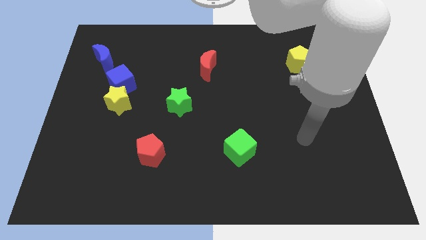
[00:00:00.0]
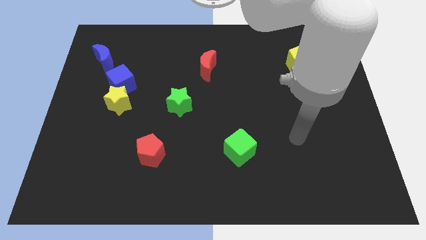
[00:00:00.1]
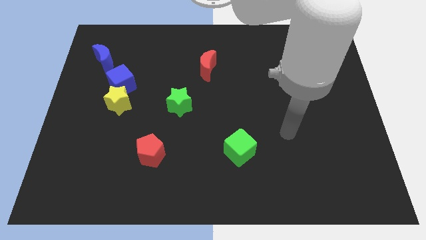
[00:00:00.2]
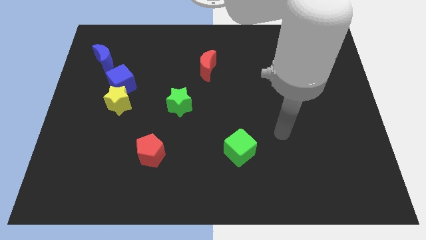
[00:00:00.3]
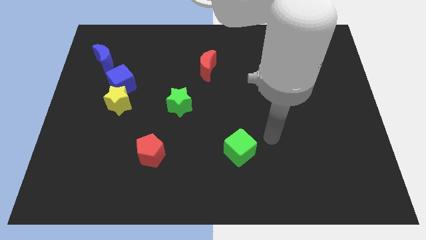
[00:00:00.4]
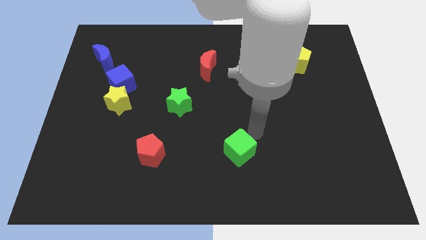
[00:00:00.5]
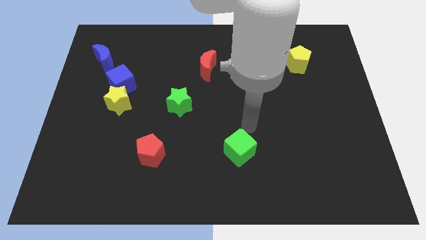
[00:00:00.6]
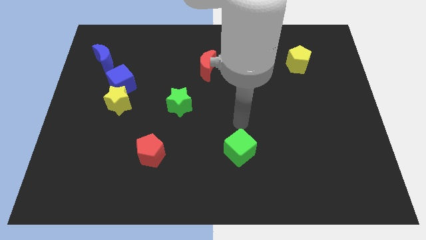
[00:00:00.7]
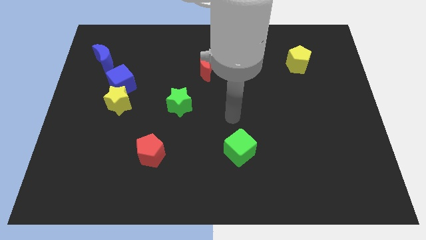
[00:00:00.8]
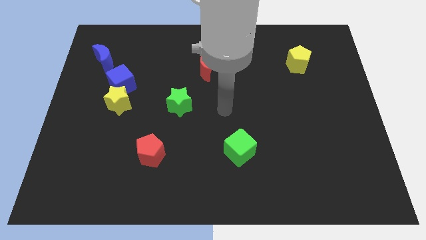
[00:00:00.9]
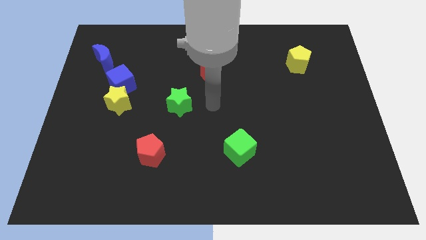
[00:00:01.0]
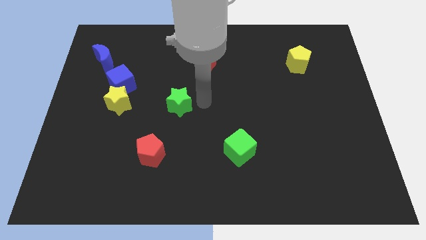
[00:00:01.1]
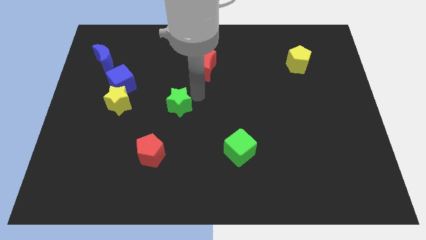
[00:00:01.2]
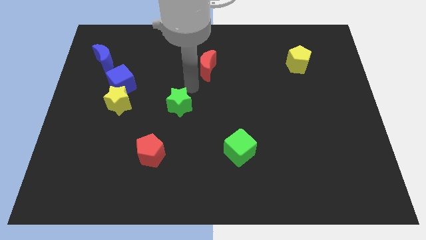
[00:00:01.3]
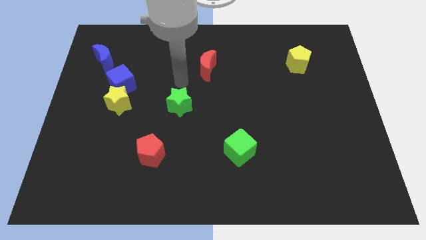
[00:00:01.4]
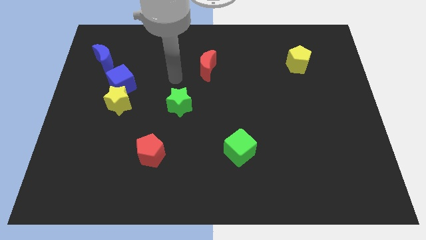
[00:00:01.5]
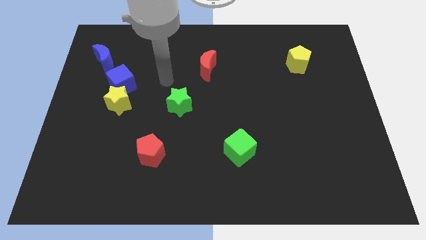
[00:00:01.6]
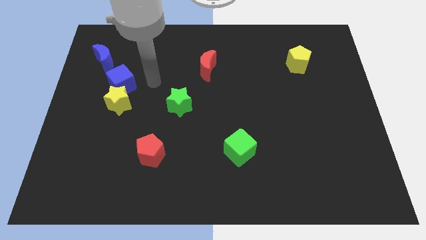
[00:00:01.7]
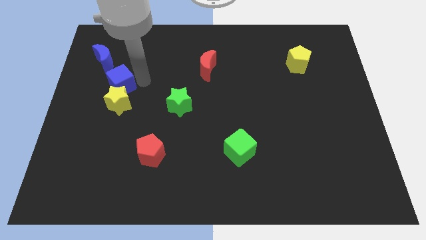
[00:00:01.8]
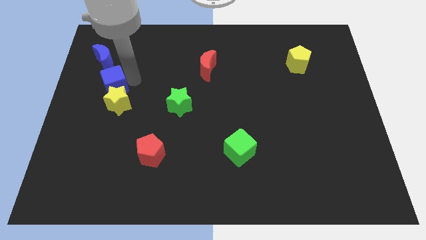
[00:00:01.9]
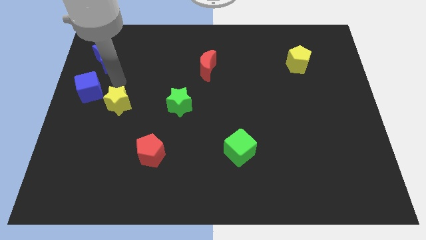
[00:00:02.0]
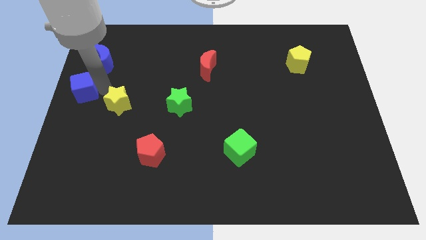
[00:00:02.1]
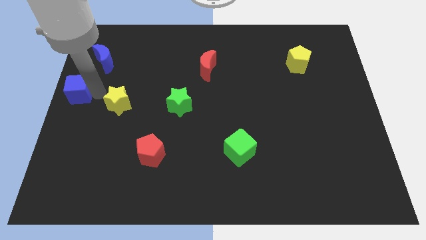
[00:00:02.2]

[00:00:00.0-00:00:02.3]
separate the yellow star from the blue cube

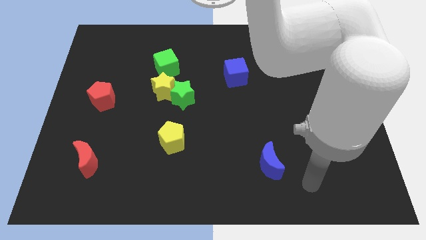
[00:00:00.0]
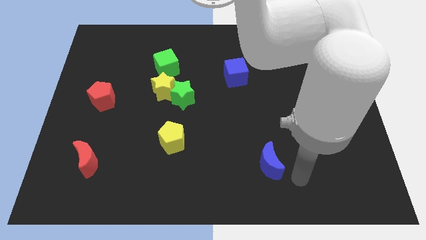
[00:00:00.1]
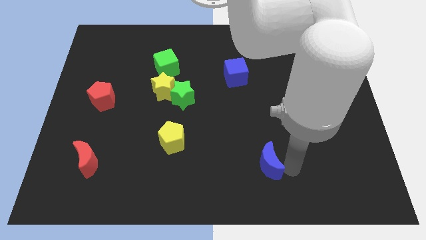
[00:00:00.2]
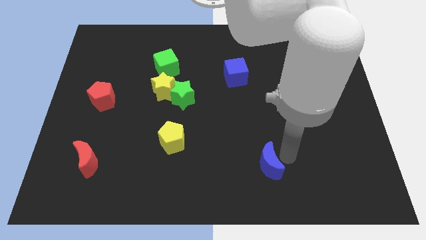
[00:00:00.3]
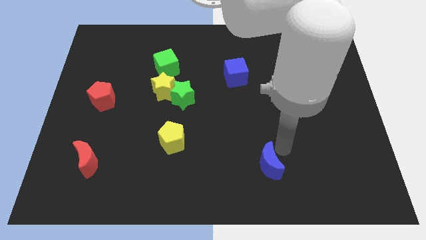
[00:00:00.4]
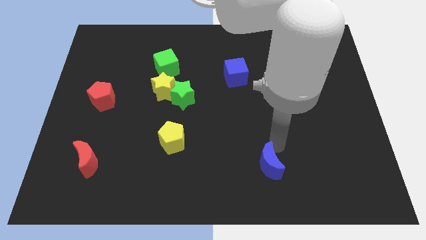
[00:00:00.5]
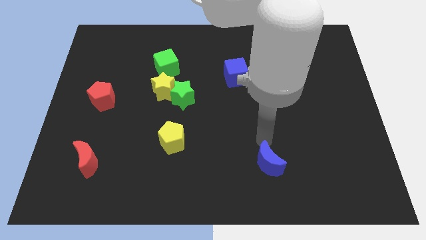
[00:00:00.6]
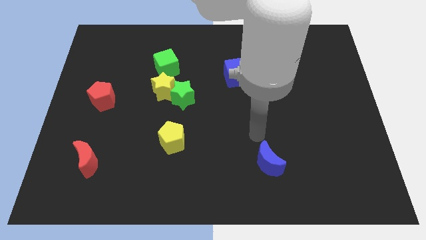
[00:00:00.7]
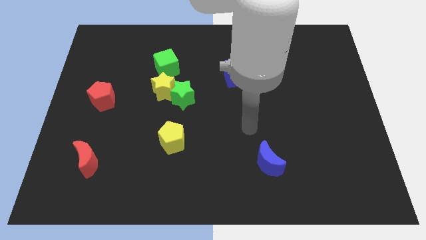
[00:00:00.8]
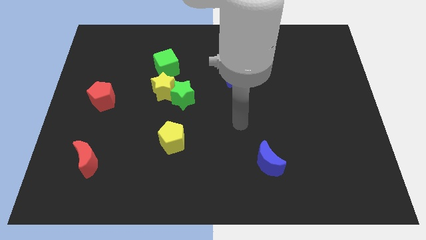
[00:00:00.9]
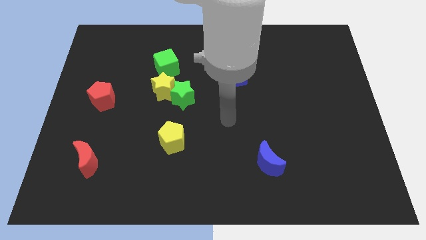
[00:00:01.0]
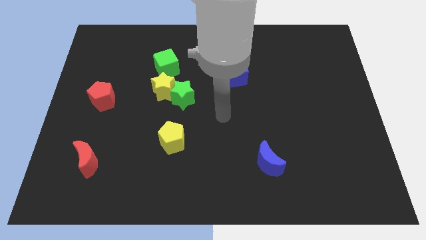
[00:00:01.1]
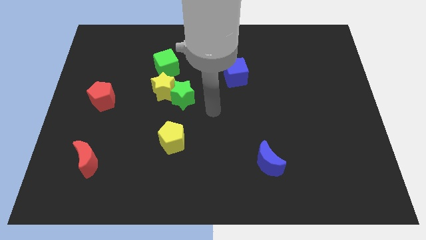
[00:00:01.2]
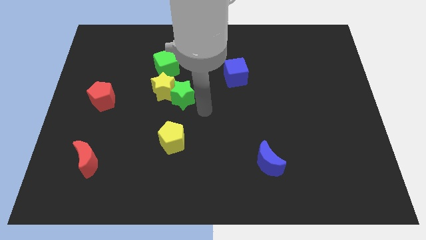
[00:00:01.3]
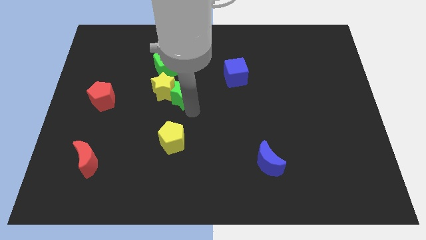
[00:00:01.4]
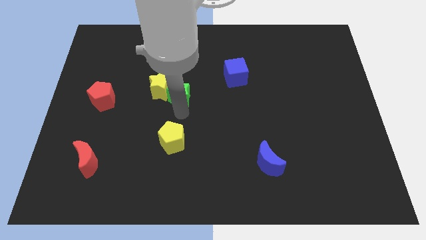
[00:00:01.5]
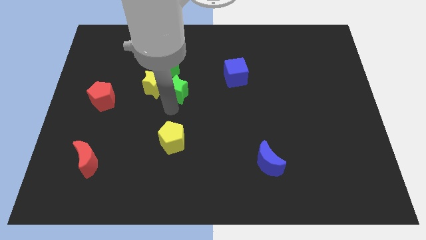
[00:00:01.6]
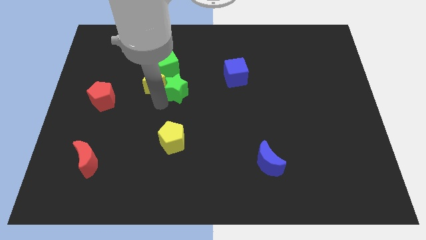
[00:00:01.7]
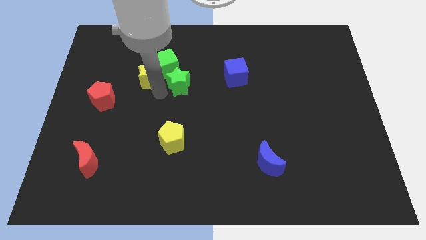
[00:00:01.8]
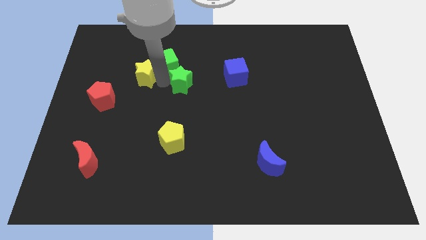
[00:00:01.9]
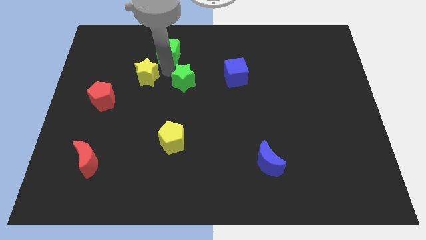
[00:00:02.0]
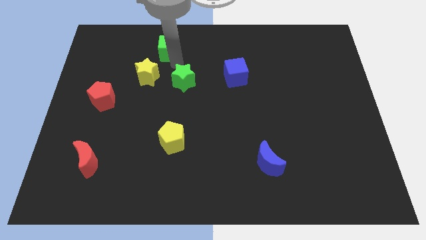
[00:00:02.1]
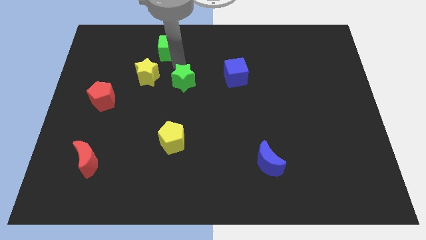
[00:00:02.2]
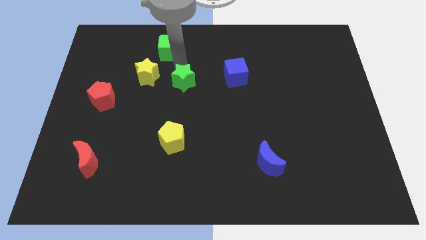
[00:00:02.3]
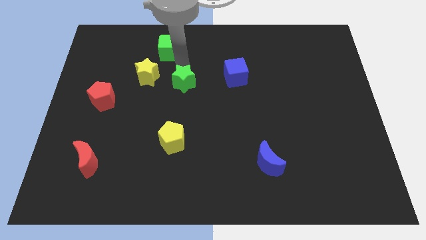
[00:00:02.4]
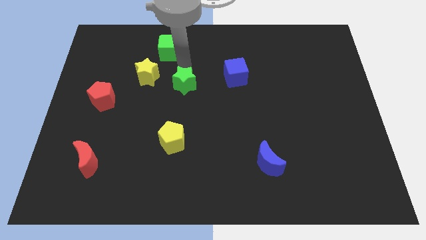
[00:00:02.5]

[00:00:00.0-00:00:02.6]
separate the green star from the yellow star

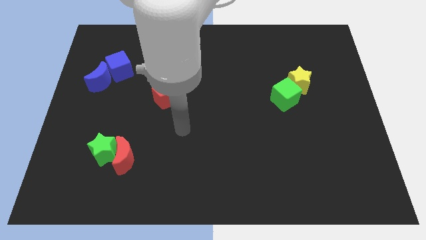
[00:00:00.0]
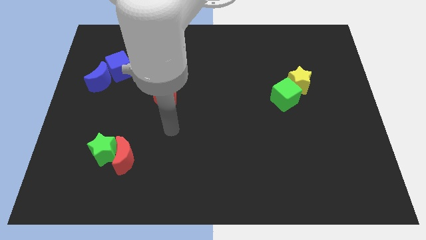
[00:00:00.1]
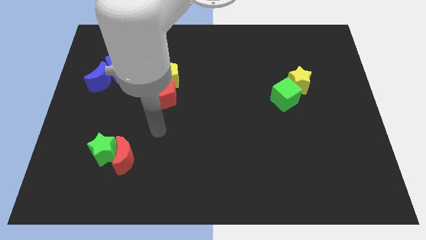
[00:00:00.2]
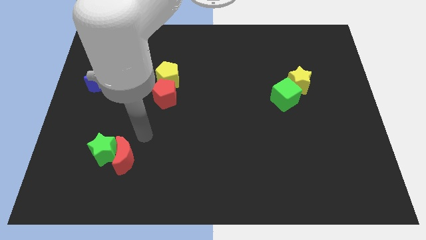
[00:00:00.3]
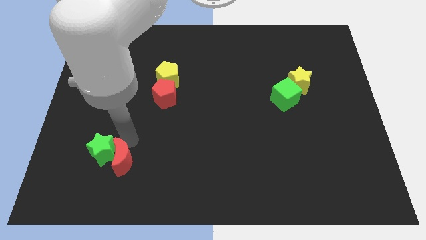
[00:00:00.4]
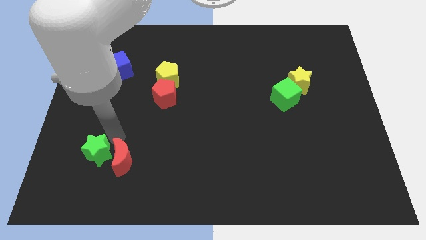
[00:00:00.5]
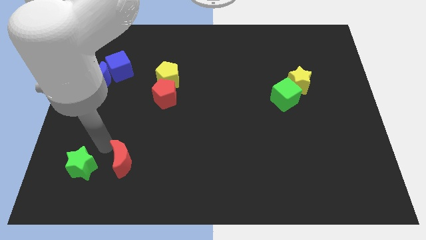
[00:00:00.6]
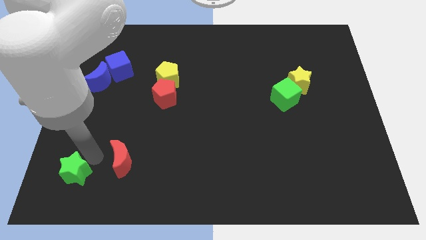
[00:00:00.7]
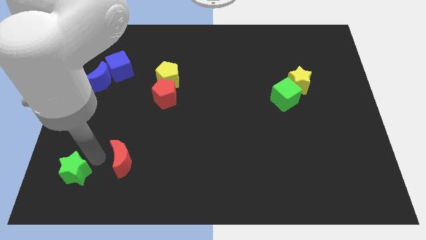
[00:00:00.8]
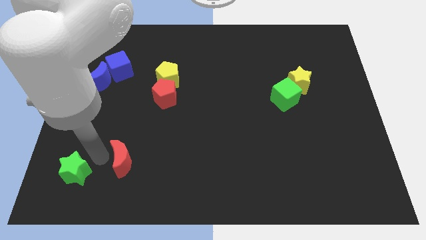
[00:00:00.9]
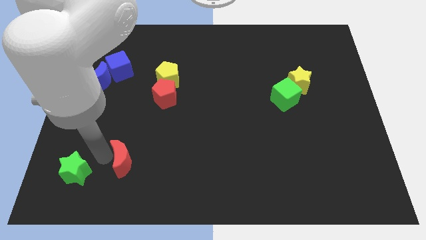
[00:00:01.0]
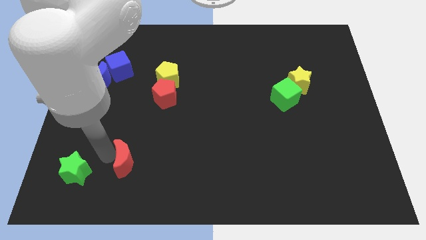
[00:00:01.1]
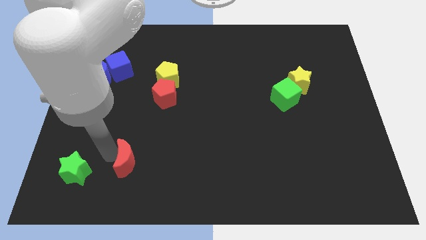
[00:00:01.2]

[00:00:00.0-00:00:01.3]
separate the red moon from the green star

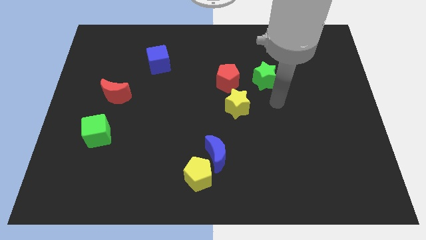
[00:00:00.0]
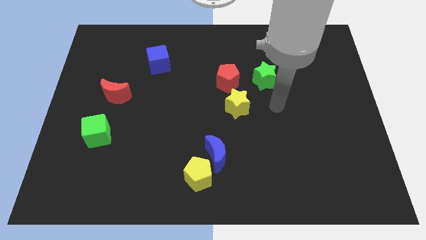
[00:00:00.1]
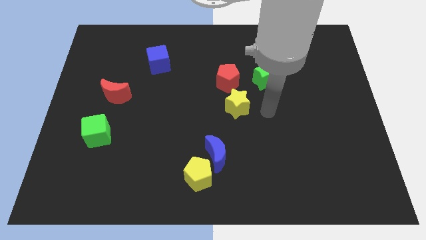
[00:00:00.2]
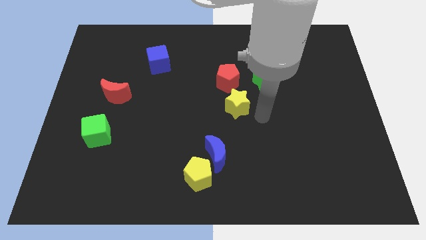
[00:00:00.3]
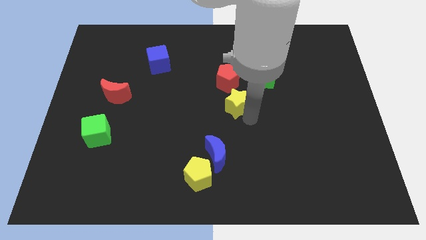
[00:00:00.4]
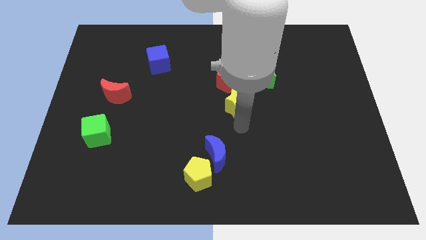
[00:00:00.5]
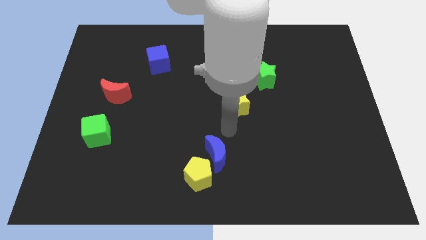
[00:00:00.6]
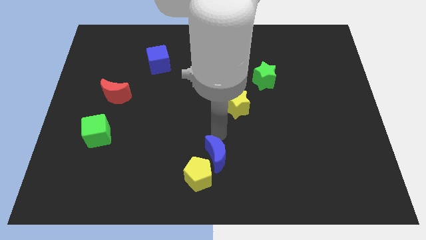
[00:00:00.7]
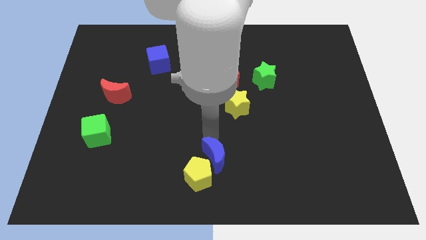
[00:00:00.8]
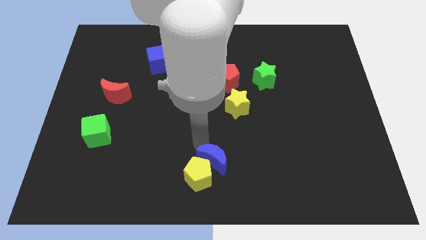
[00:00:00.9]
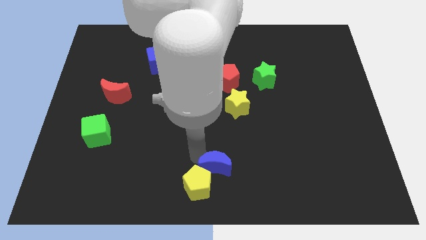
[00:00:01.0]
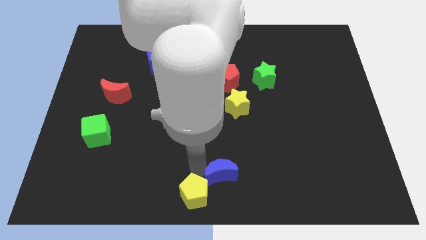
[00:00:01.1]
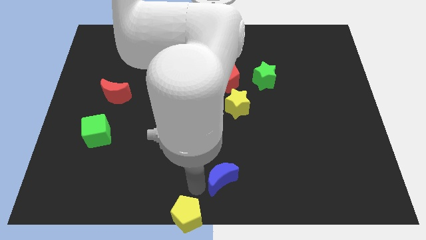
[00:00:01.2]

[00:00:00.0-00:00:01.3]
pull the blue moon apart from the yellow pentagon

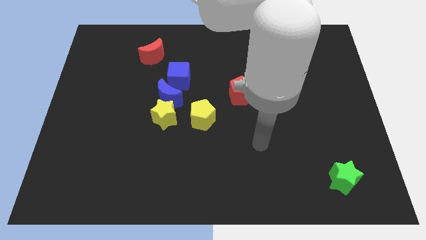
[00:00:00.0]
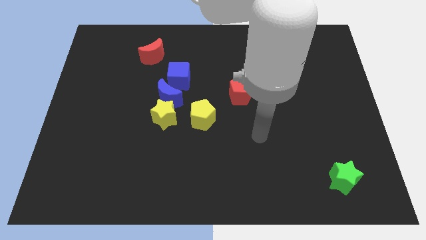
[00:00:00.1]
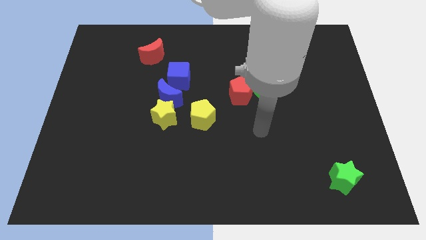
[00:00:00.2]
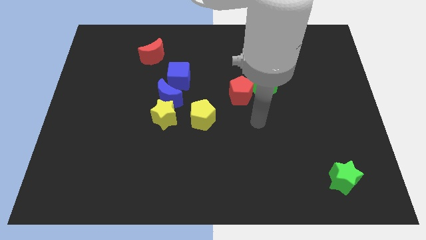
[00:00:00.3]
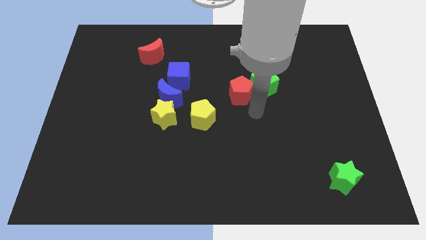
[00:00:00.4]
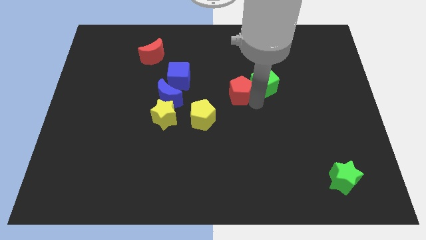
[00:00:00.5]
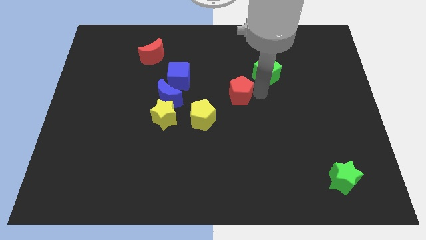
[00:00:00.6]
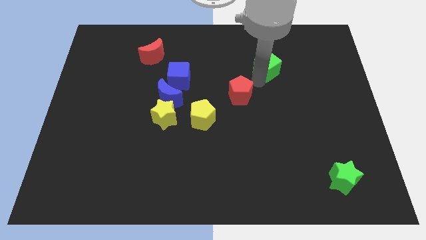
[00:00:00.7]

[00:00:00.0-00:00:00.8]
separate the red pentagon from the green cube

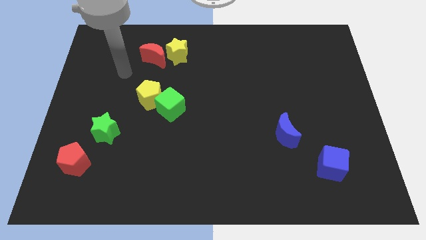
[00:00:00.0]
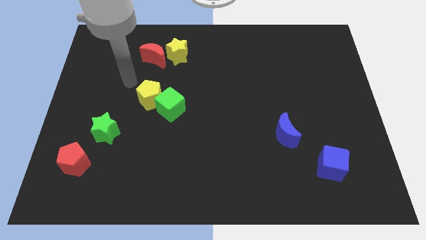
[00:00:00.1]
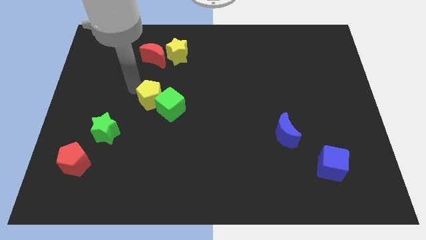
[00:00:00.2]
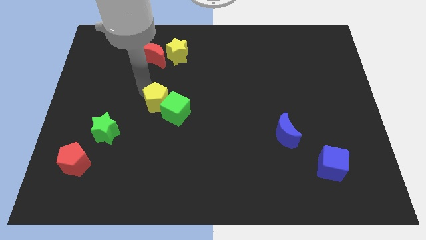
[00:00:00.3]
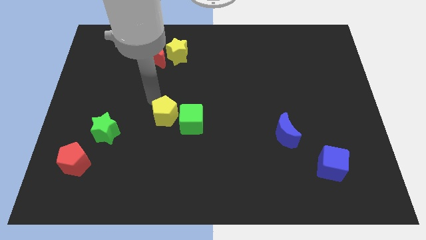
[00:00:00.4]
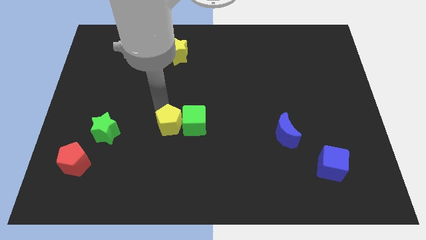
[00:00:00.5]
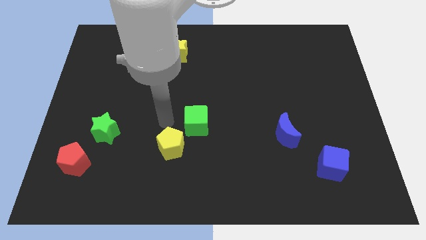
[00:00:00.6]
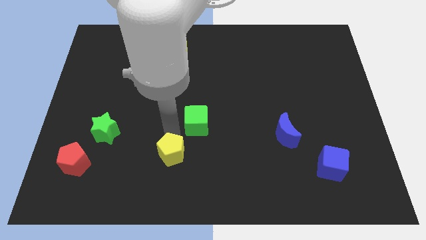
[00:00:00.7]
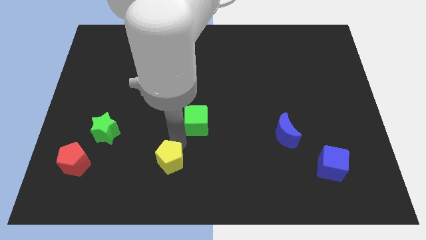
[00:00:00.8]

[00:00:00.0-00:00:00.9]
separate the green cube from the yellow pentagon
